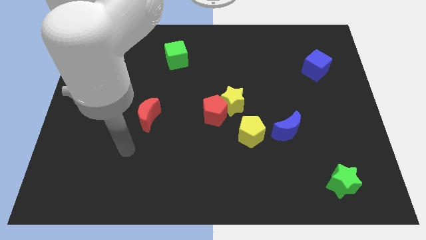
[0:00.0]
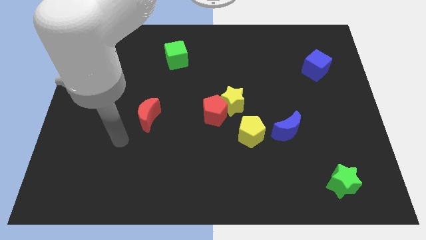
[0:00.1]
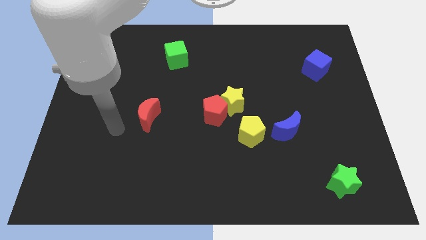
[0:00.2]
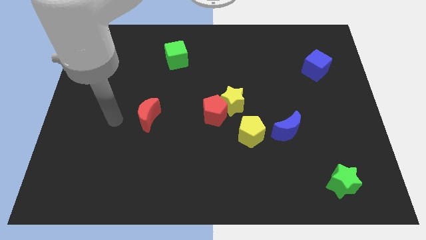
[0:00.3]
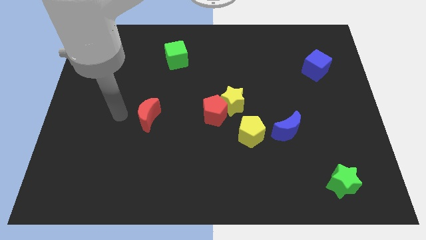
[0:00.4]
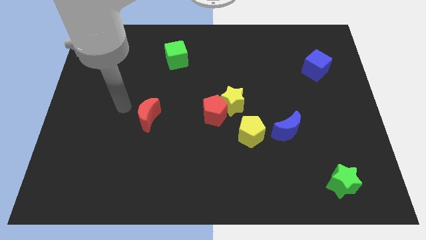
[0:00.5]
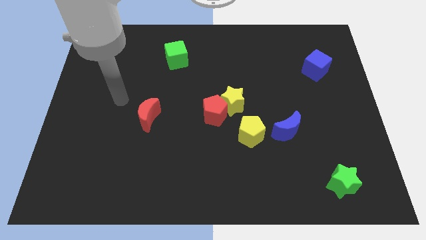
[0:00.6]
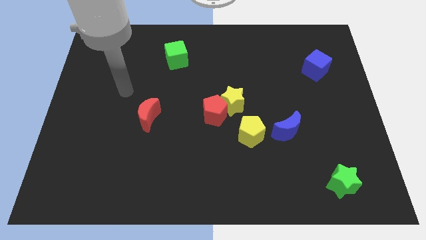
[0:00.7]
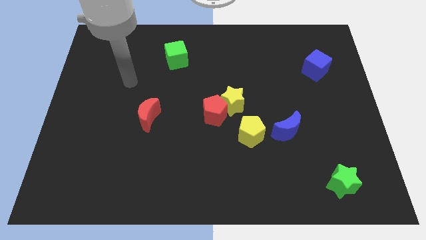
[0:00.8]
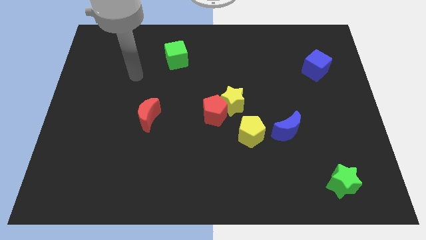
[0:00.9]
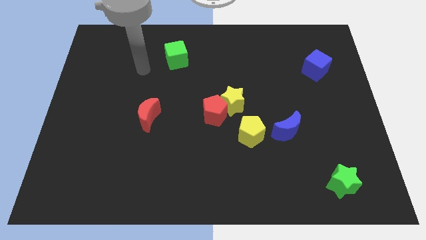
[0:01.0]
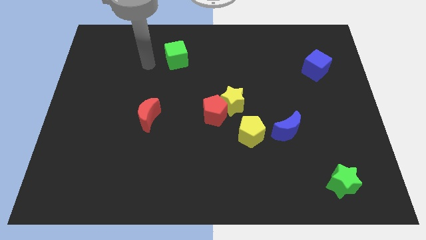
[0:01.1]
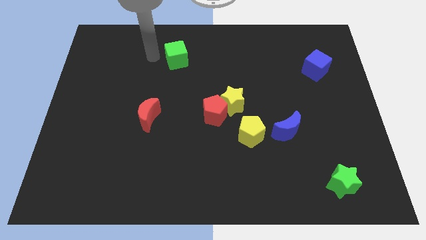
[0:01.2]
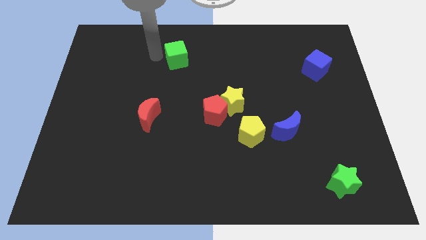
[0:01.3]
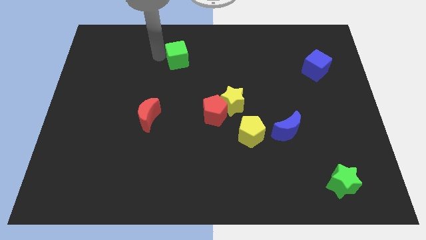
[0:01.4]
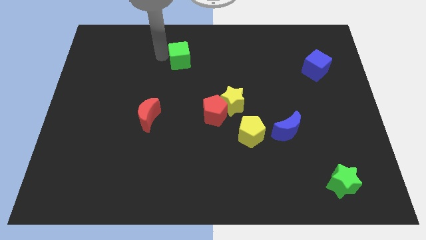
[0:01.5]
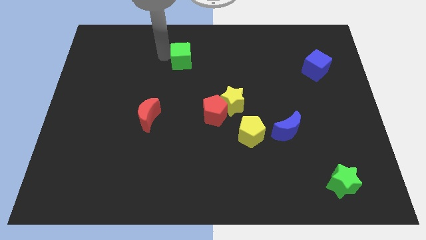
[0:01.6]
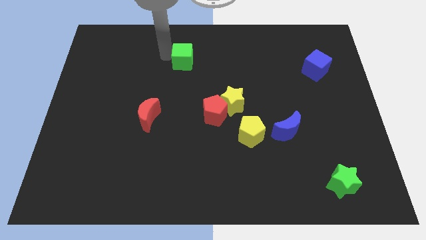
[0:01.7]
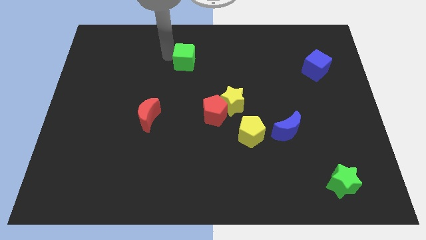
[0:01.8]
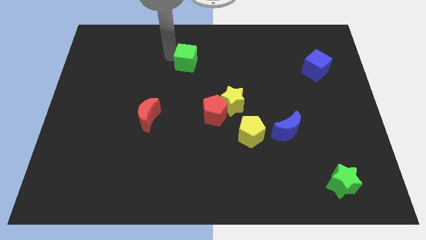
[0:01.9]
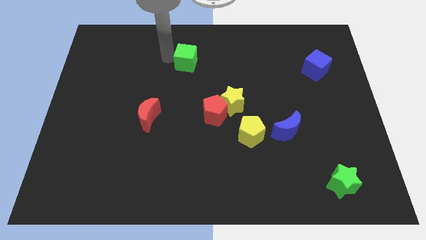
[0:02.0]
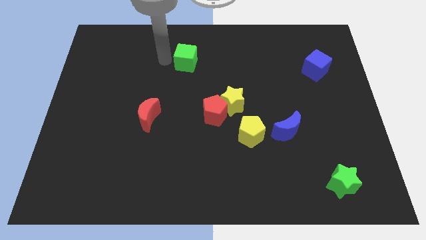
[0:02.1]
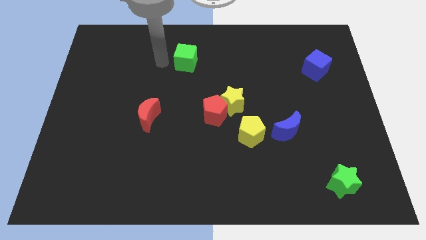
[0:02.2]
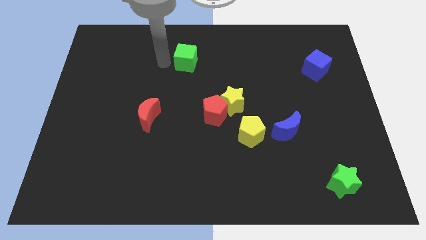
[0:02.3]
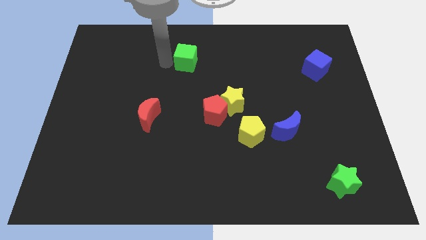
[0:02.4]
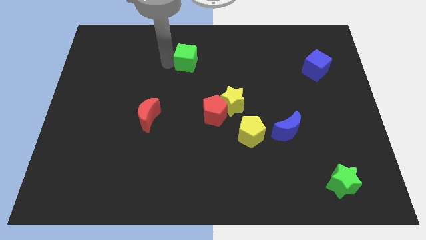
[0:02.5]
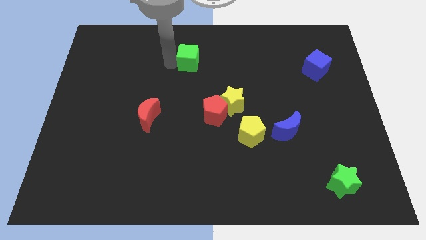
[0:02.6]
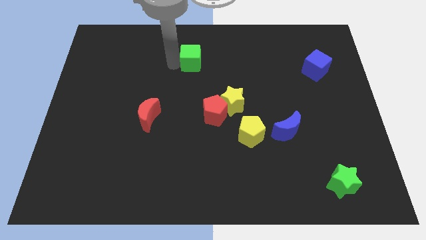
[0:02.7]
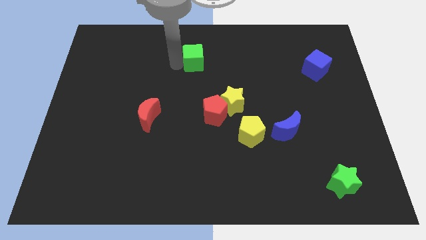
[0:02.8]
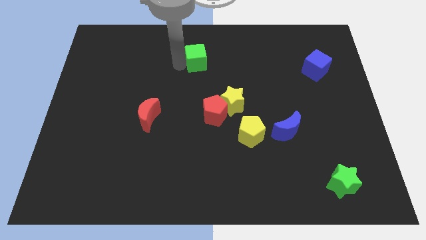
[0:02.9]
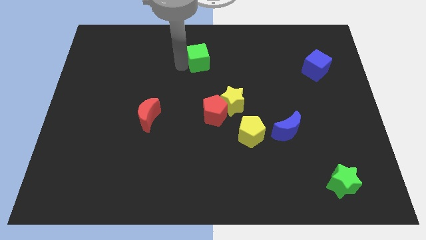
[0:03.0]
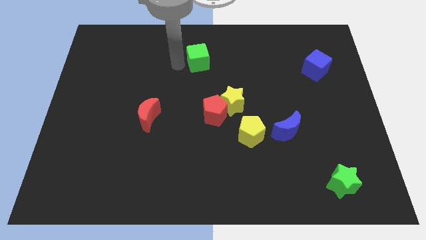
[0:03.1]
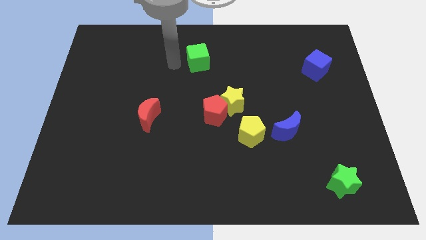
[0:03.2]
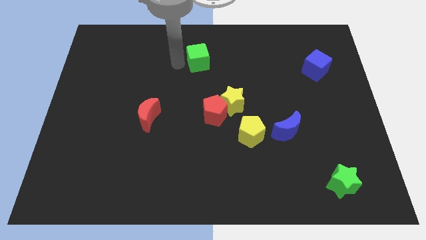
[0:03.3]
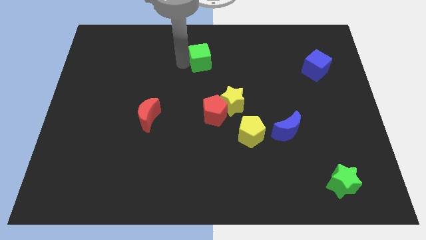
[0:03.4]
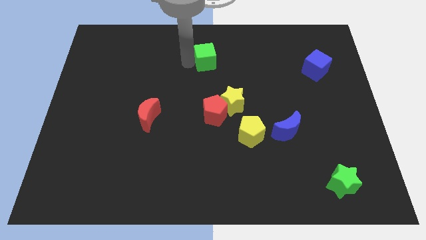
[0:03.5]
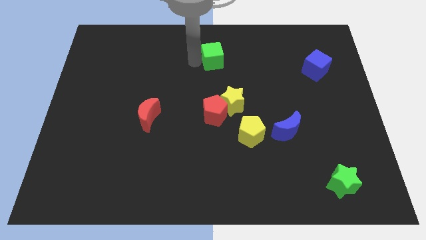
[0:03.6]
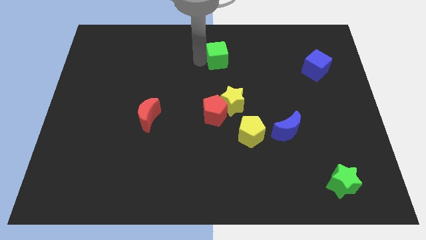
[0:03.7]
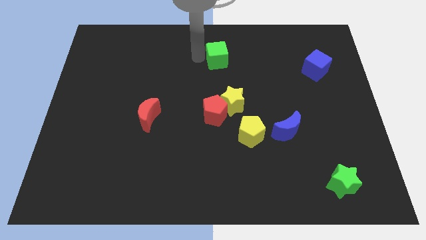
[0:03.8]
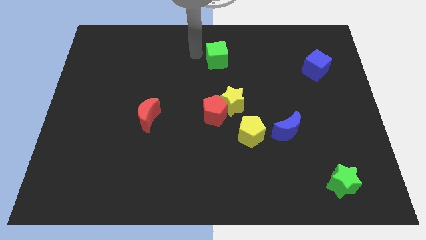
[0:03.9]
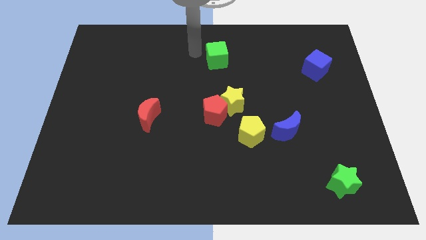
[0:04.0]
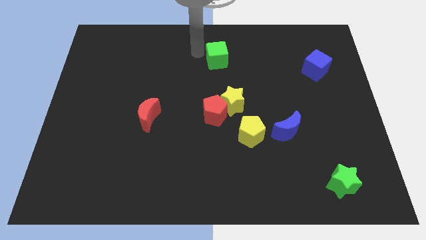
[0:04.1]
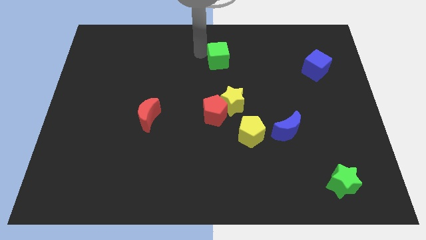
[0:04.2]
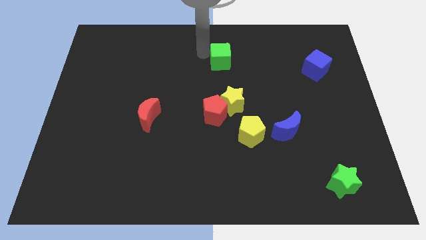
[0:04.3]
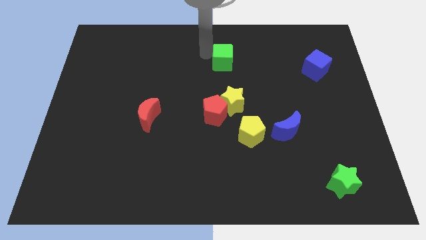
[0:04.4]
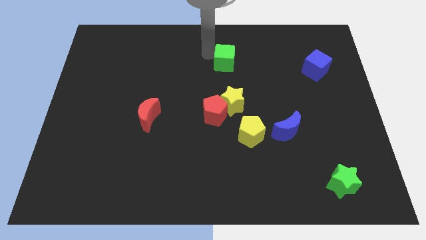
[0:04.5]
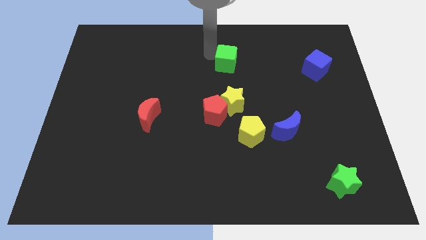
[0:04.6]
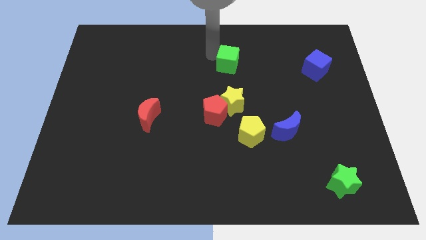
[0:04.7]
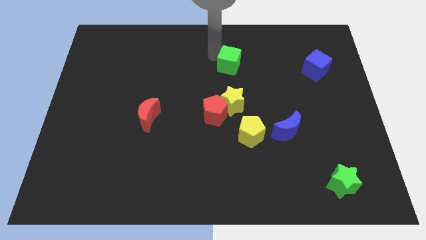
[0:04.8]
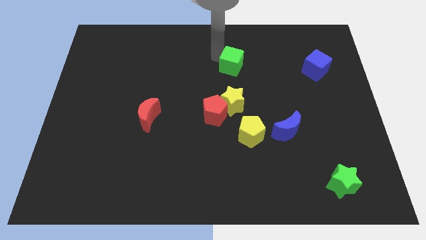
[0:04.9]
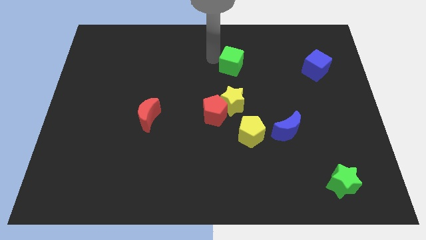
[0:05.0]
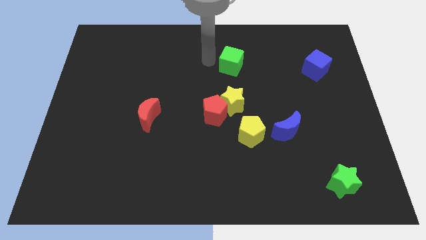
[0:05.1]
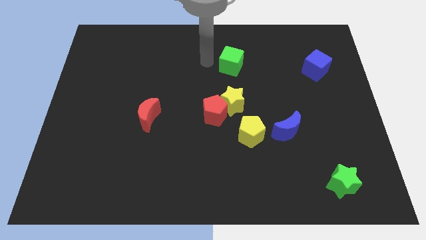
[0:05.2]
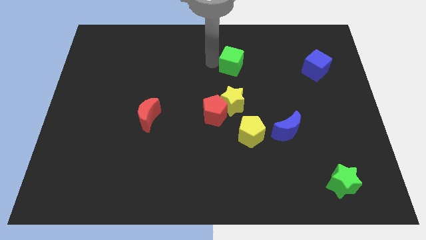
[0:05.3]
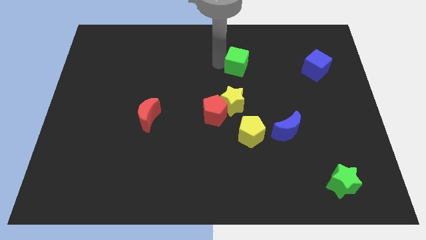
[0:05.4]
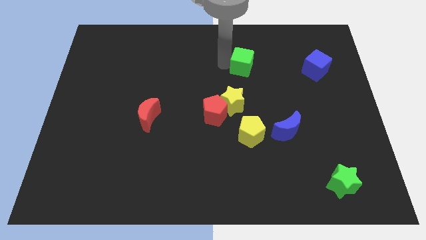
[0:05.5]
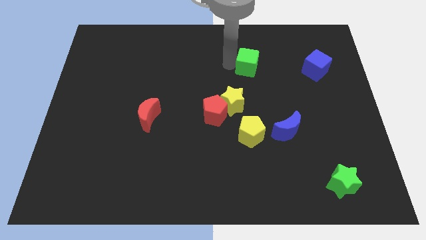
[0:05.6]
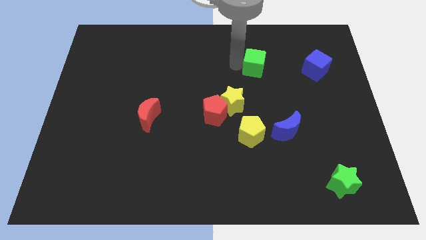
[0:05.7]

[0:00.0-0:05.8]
push the green cube just left of the blue cube
